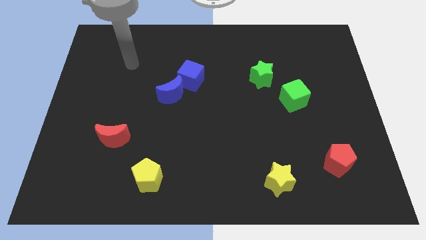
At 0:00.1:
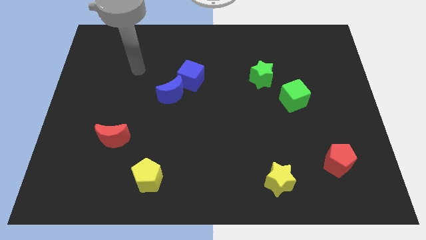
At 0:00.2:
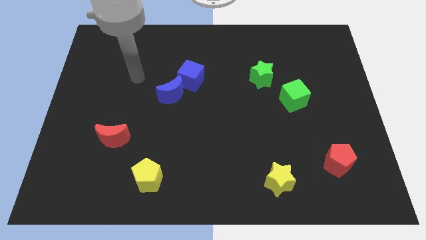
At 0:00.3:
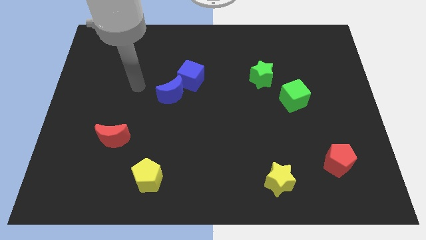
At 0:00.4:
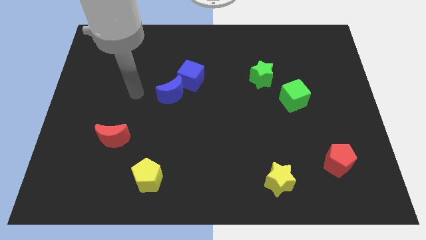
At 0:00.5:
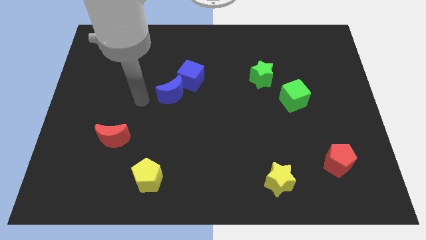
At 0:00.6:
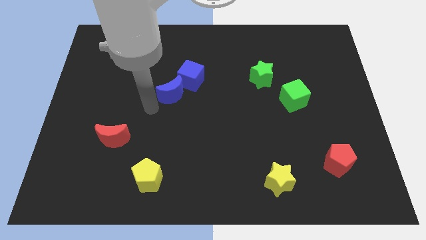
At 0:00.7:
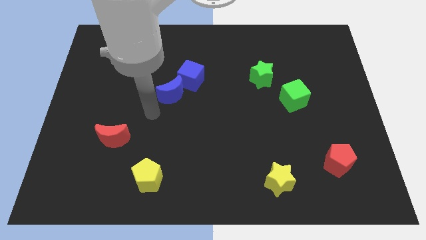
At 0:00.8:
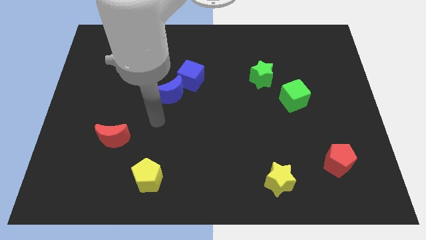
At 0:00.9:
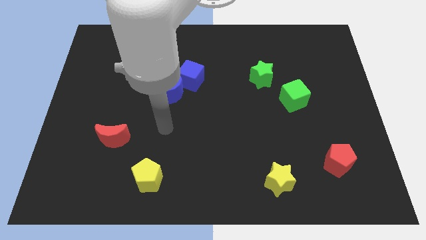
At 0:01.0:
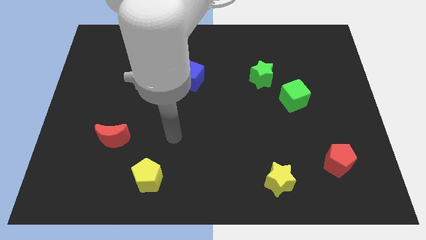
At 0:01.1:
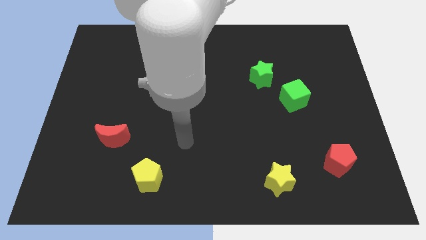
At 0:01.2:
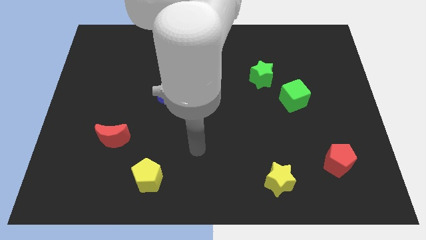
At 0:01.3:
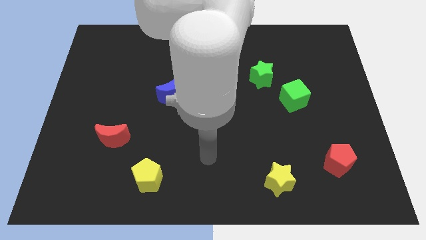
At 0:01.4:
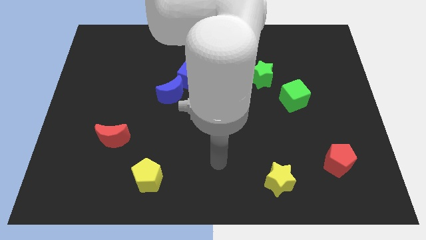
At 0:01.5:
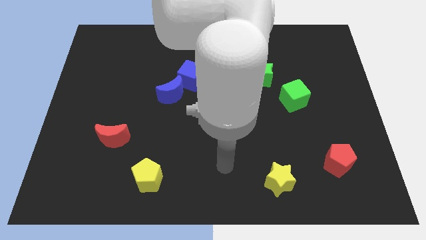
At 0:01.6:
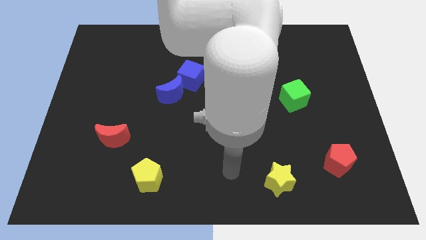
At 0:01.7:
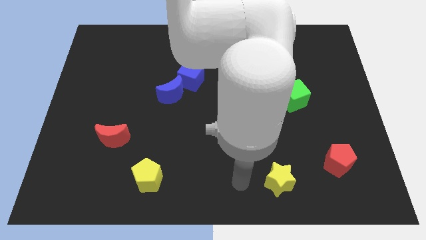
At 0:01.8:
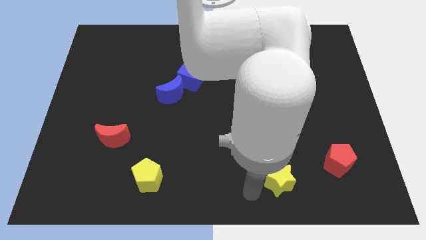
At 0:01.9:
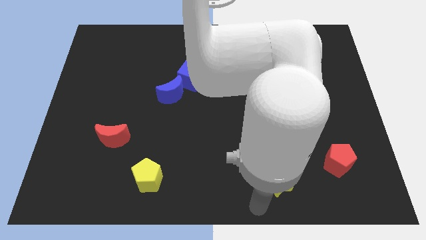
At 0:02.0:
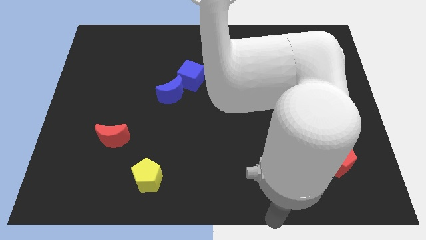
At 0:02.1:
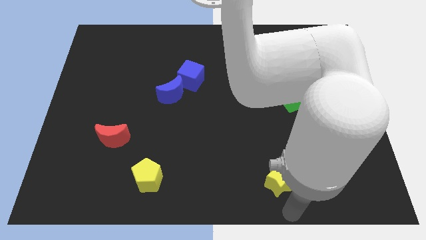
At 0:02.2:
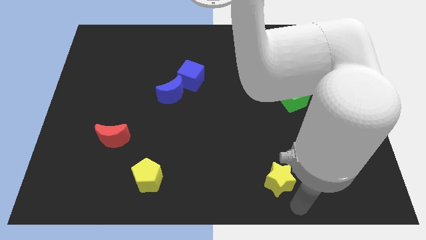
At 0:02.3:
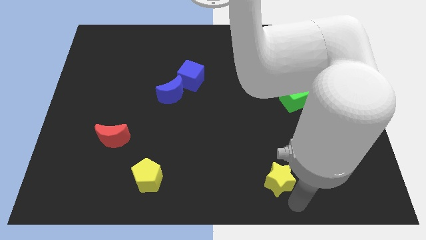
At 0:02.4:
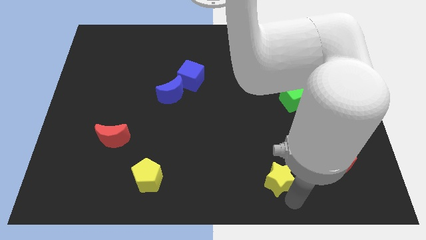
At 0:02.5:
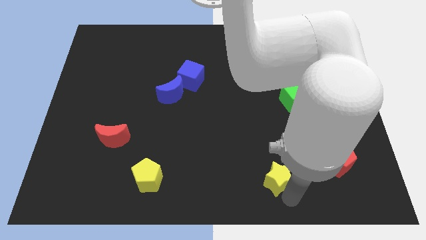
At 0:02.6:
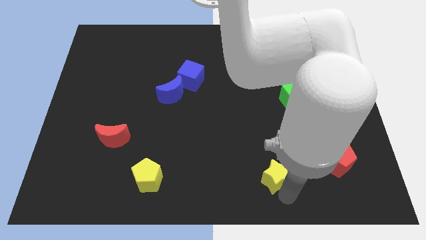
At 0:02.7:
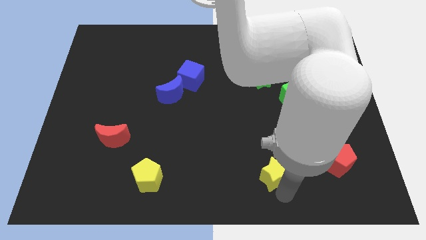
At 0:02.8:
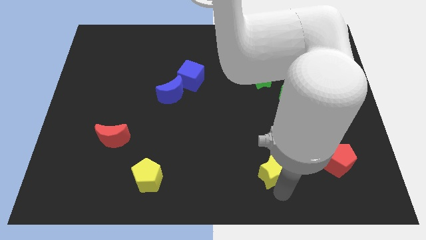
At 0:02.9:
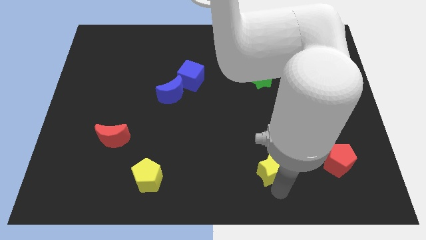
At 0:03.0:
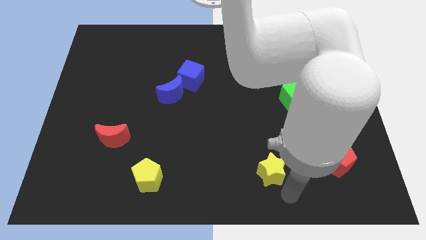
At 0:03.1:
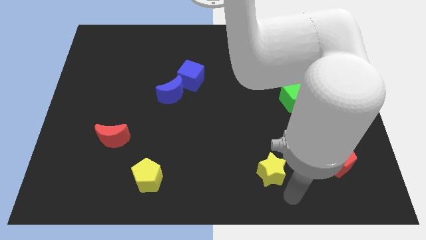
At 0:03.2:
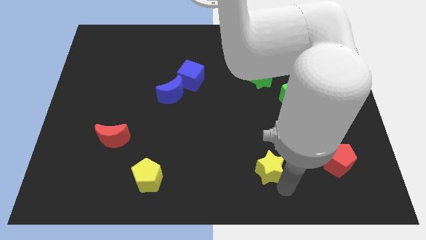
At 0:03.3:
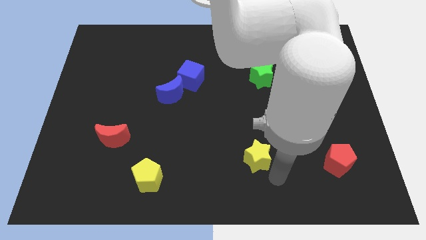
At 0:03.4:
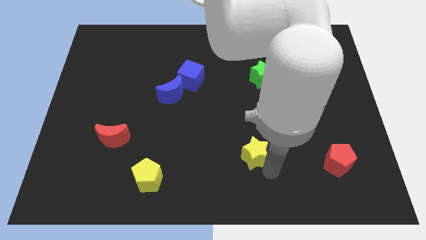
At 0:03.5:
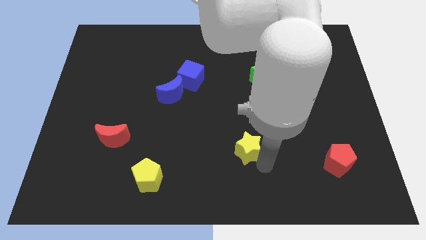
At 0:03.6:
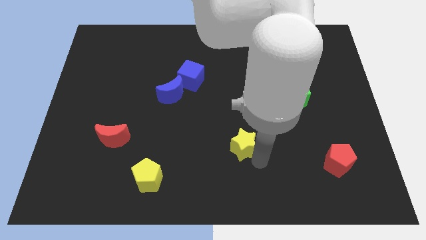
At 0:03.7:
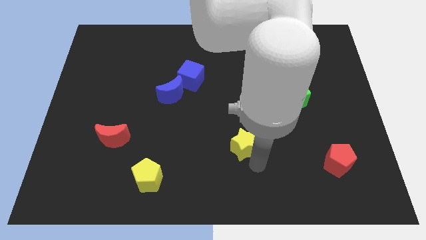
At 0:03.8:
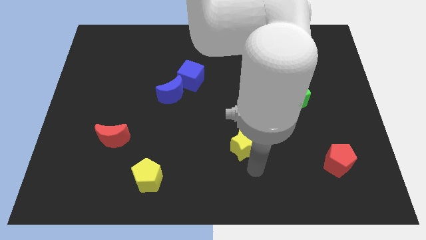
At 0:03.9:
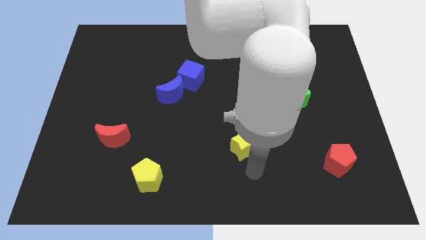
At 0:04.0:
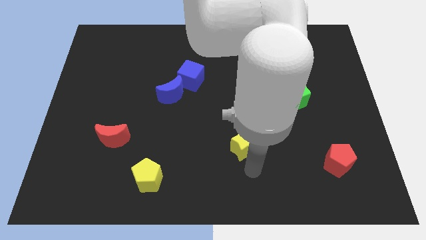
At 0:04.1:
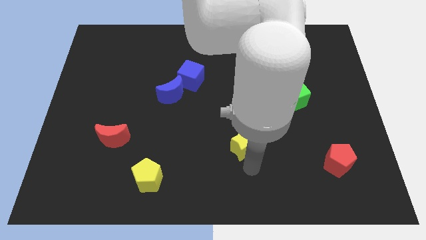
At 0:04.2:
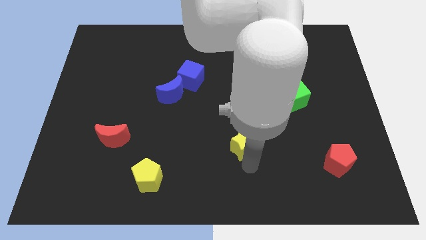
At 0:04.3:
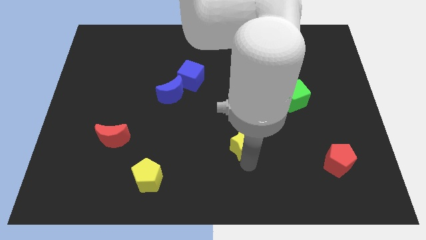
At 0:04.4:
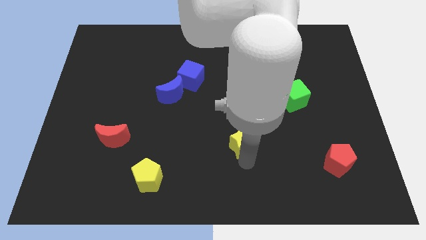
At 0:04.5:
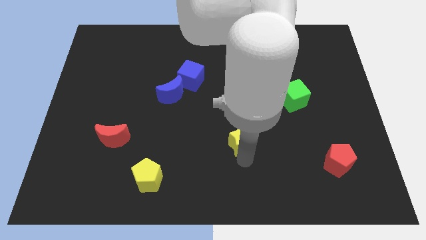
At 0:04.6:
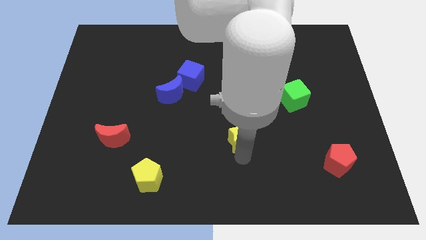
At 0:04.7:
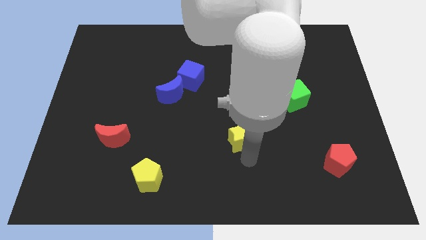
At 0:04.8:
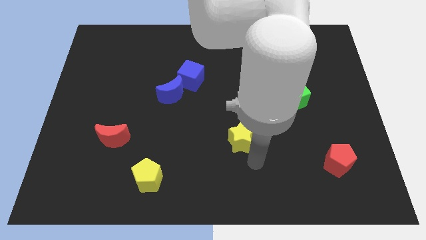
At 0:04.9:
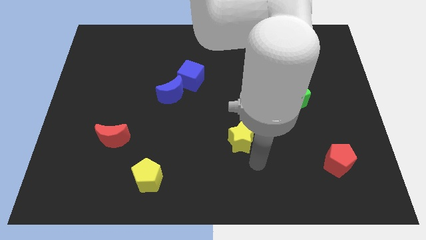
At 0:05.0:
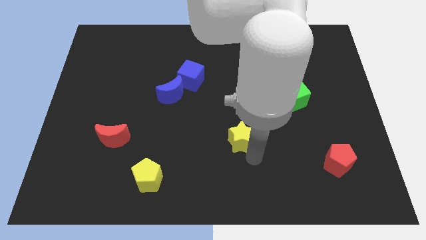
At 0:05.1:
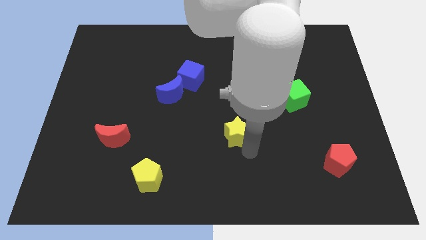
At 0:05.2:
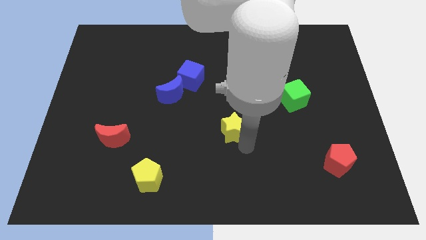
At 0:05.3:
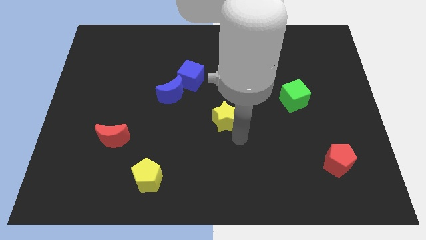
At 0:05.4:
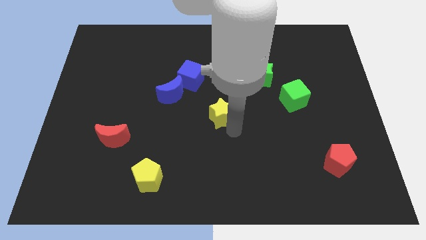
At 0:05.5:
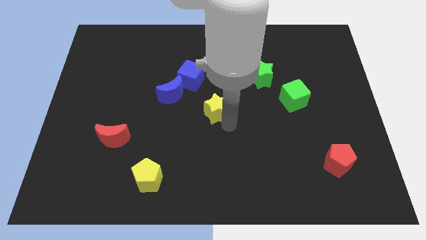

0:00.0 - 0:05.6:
slide the yellow star to the bottom right side of the blue cube

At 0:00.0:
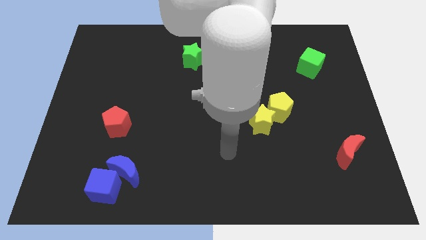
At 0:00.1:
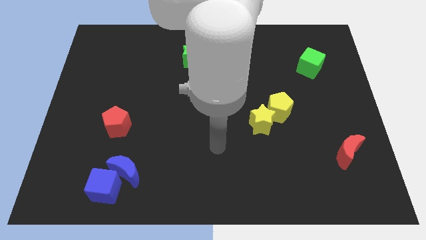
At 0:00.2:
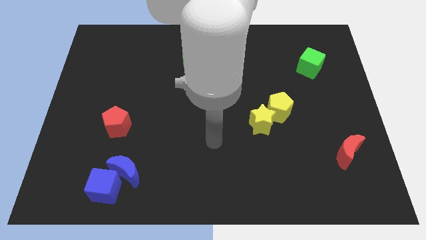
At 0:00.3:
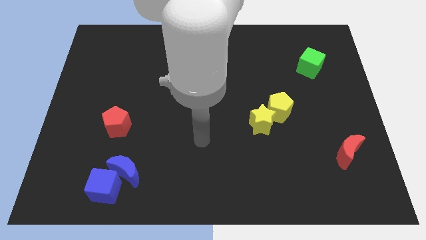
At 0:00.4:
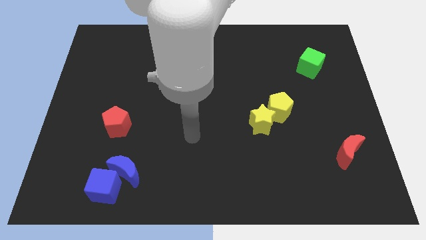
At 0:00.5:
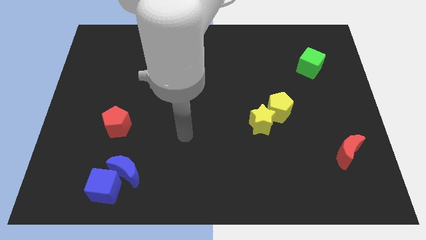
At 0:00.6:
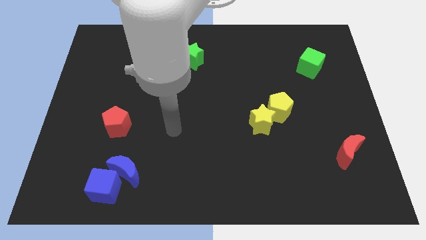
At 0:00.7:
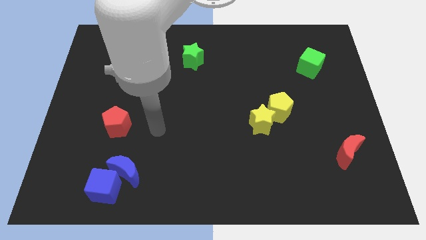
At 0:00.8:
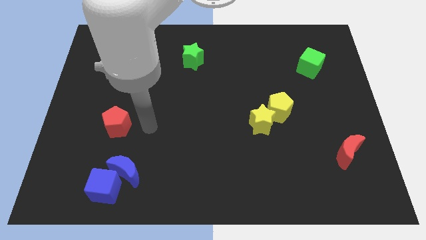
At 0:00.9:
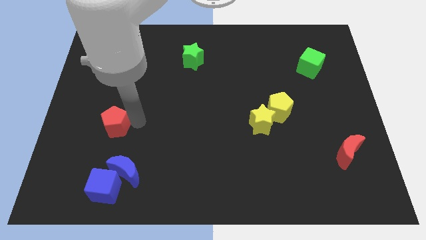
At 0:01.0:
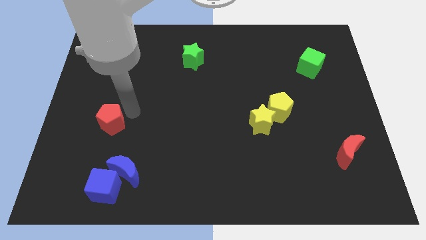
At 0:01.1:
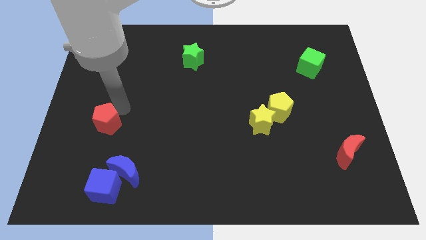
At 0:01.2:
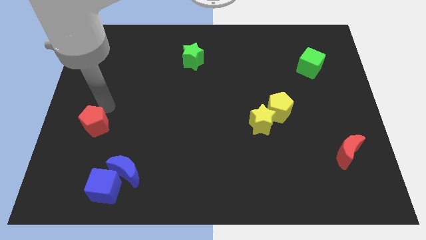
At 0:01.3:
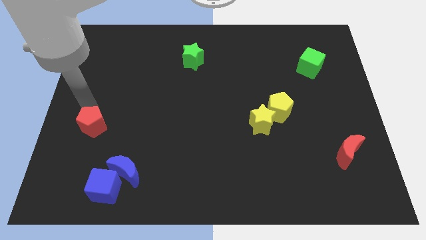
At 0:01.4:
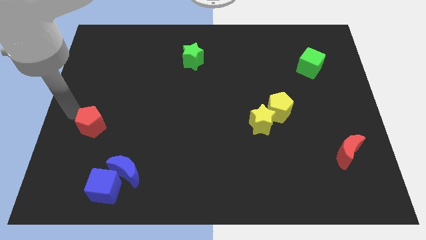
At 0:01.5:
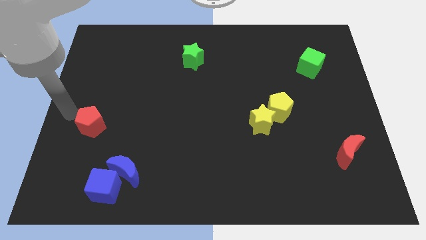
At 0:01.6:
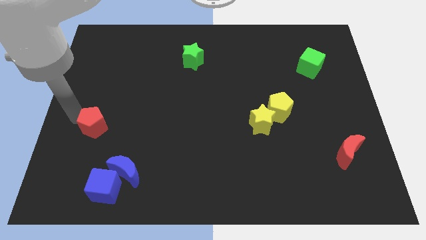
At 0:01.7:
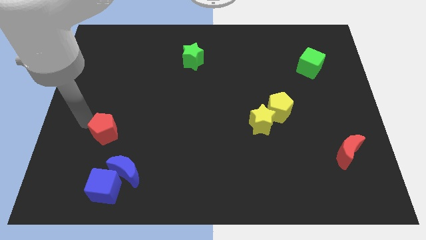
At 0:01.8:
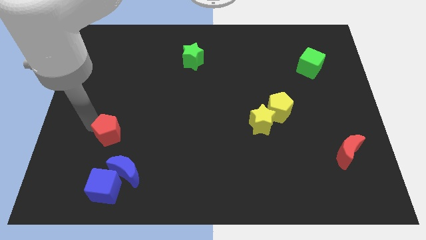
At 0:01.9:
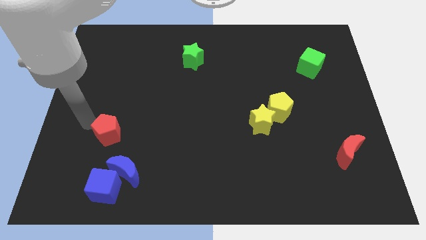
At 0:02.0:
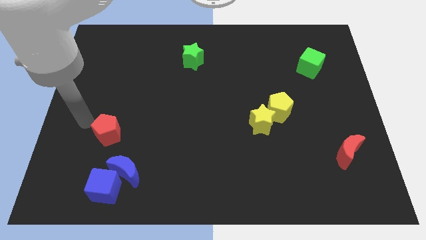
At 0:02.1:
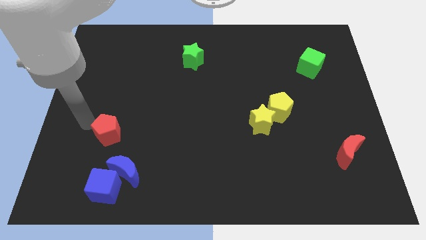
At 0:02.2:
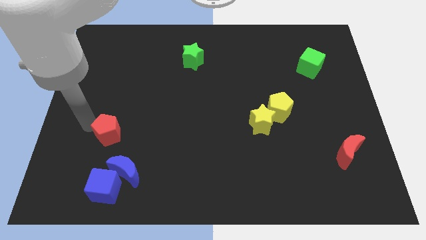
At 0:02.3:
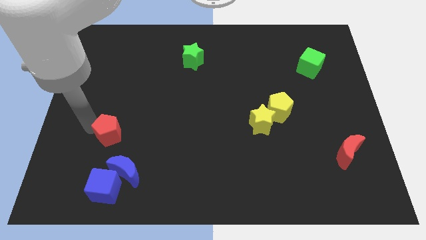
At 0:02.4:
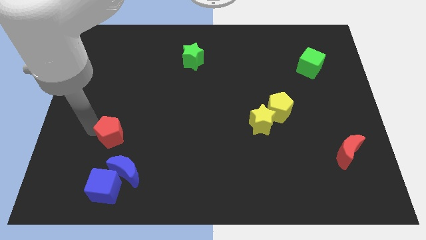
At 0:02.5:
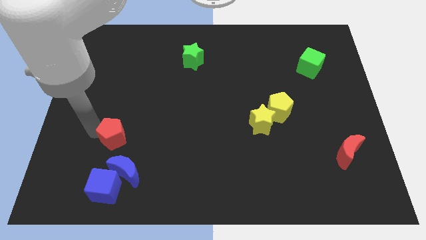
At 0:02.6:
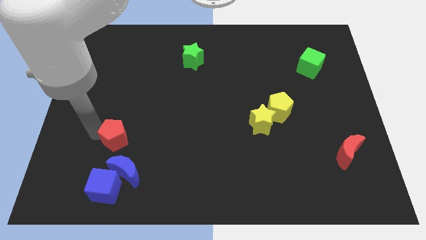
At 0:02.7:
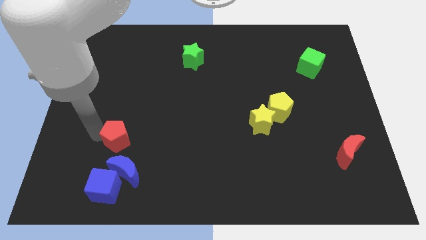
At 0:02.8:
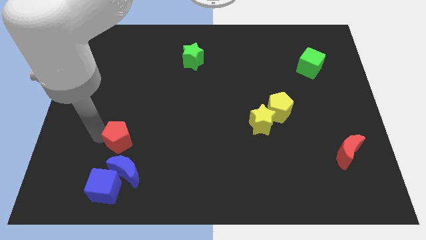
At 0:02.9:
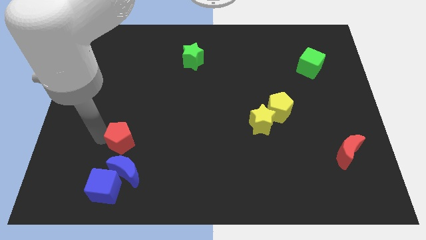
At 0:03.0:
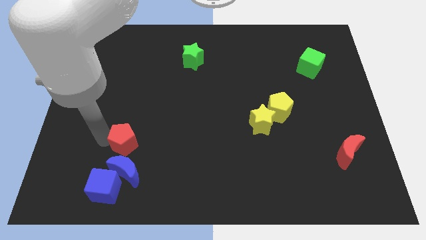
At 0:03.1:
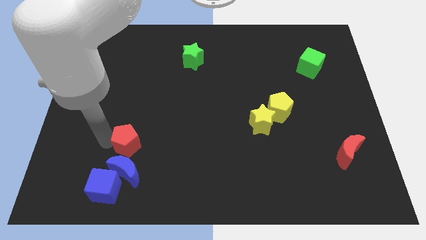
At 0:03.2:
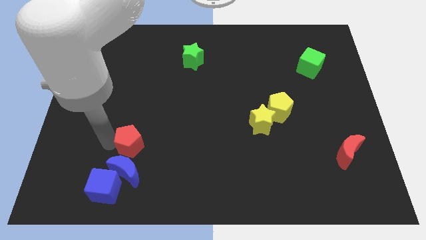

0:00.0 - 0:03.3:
put the red pentagon diagonally up and to the right of the blue moon
